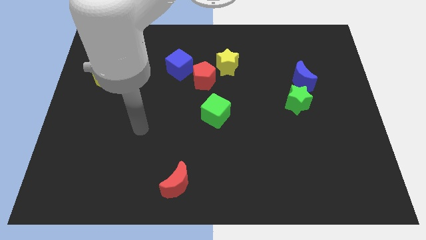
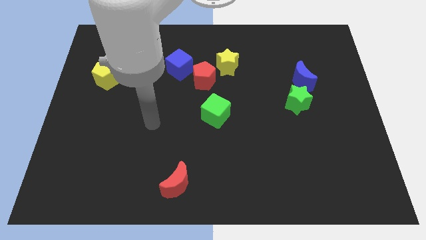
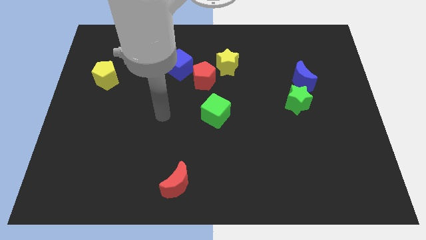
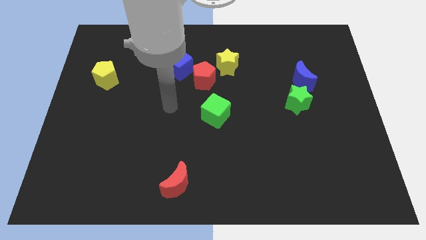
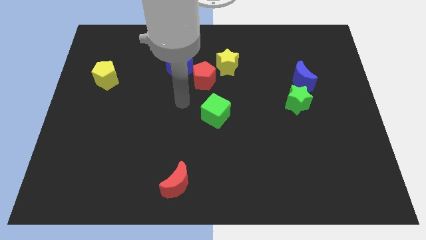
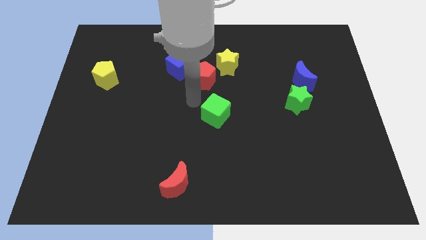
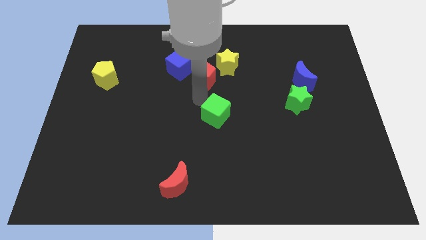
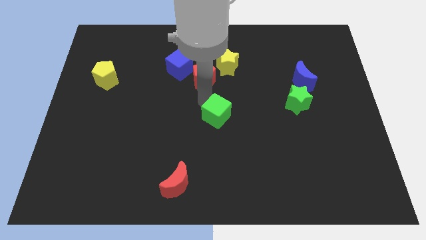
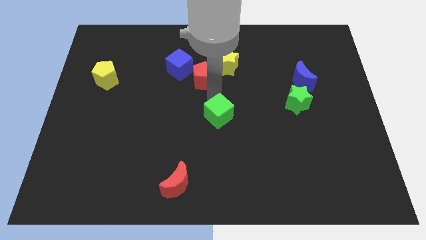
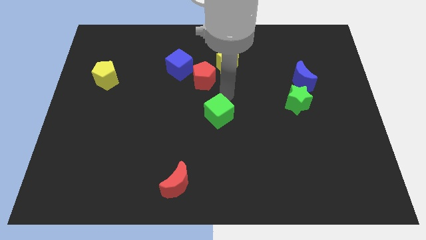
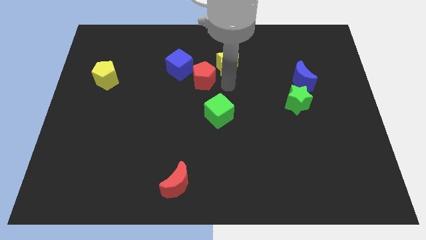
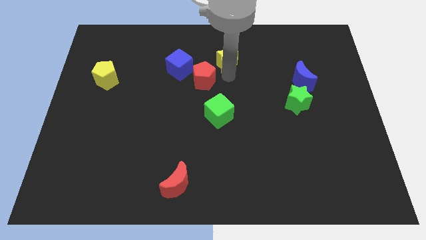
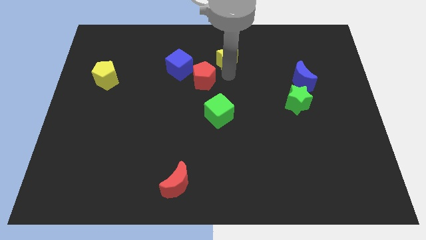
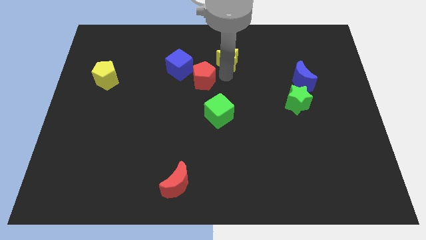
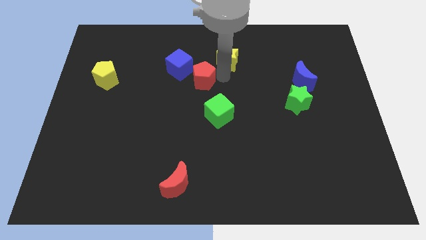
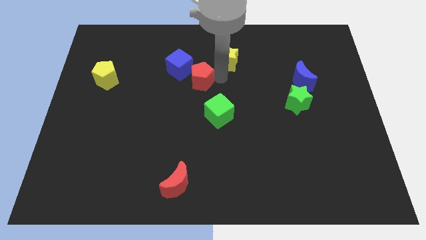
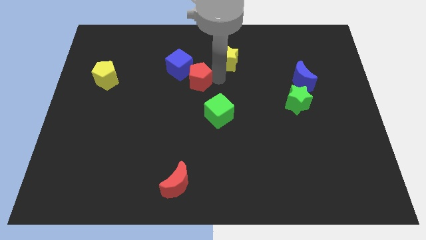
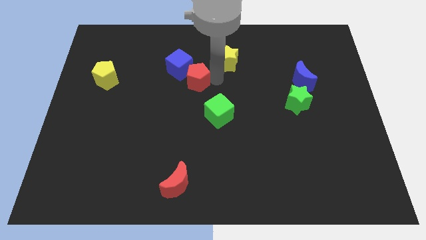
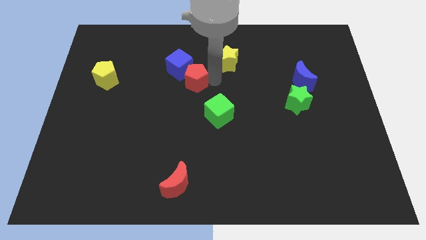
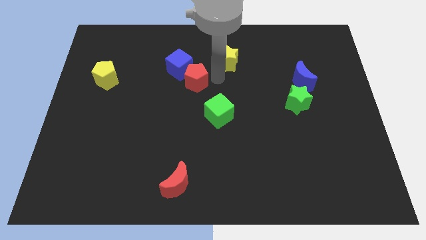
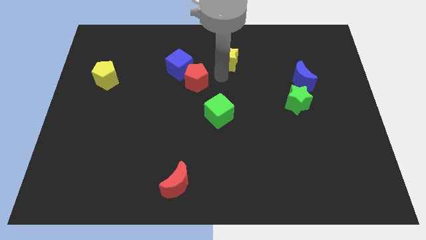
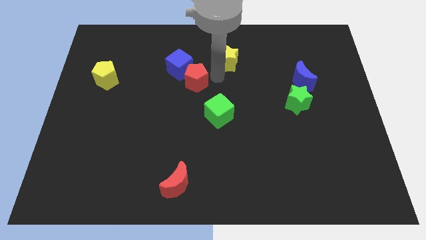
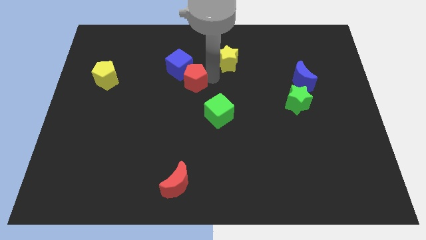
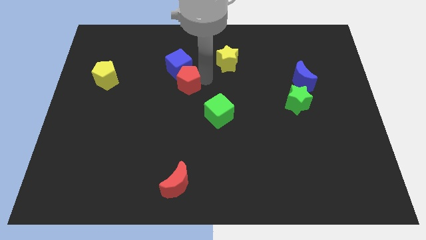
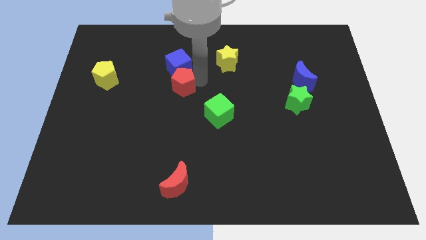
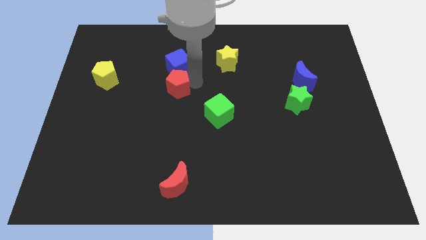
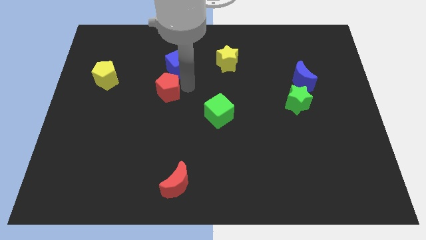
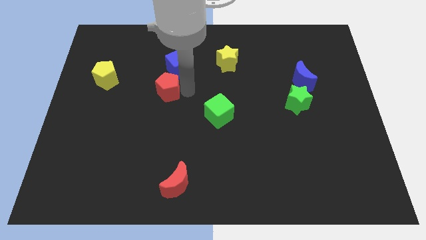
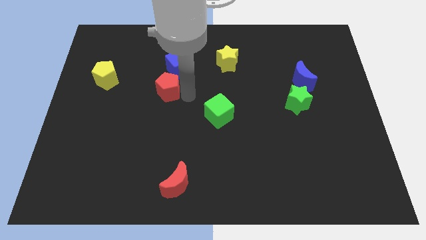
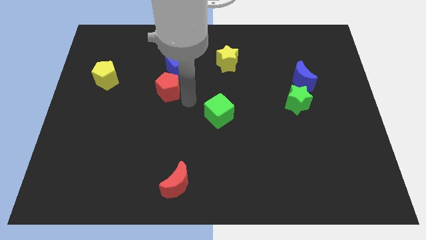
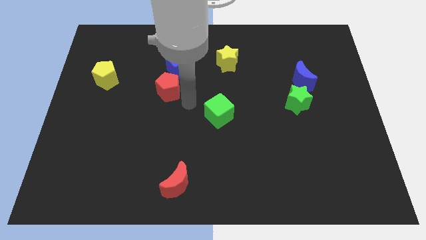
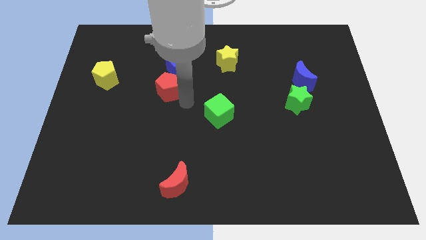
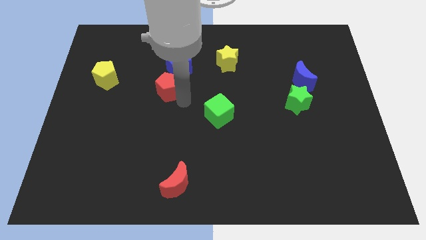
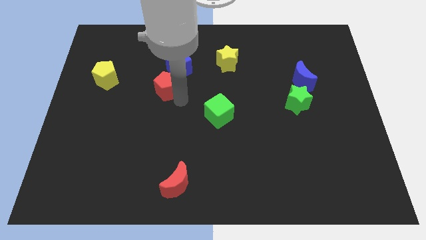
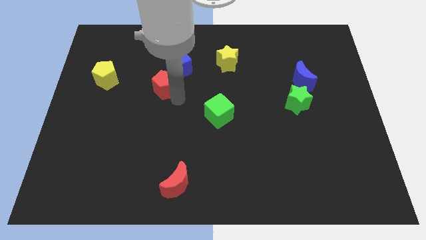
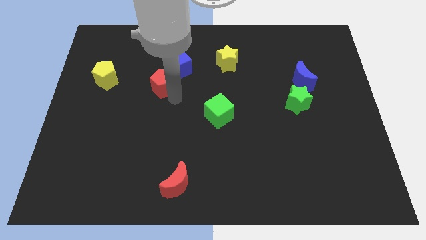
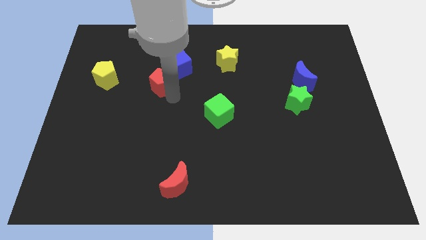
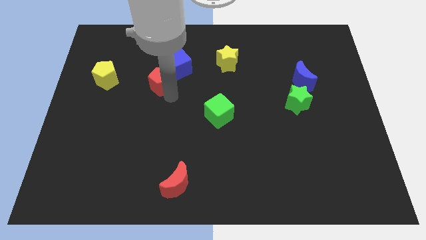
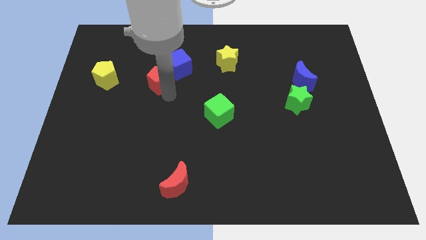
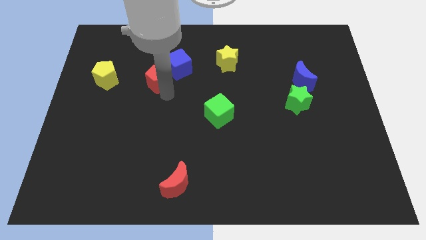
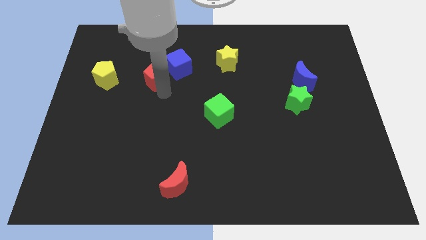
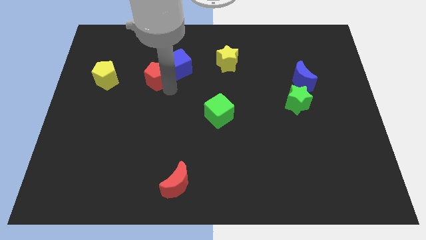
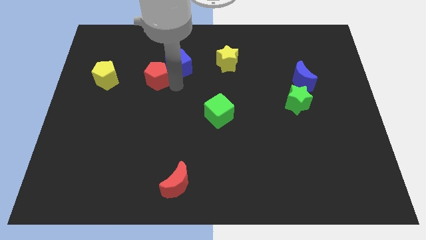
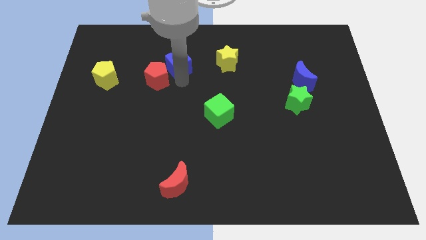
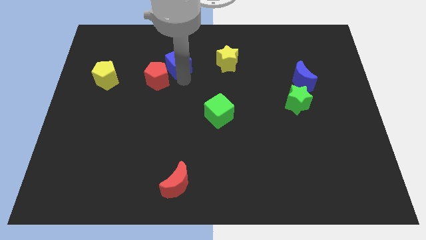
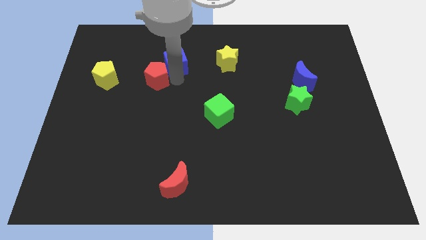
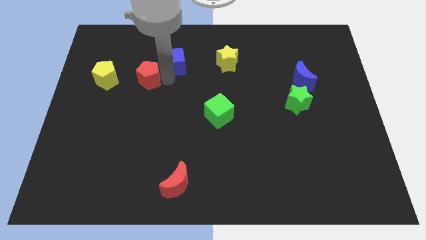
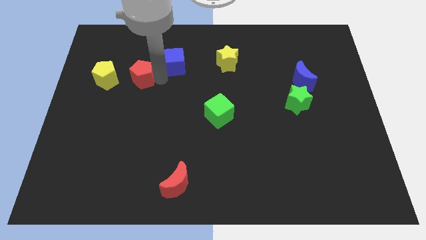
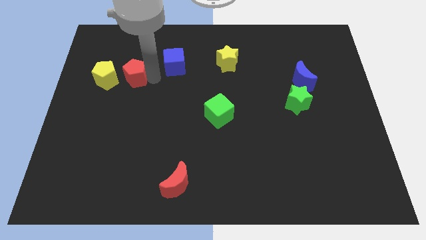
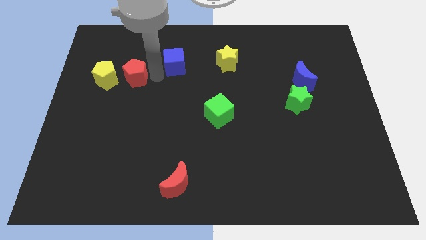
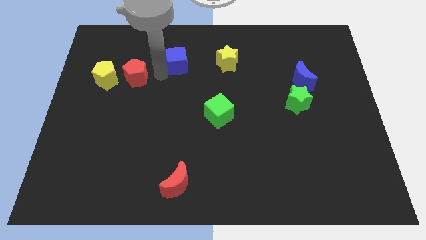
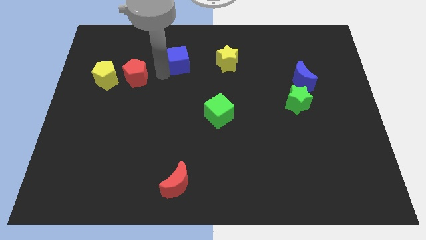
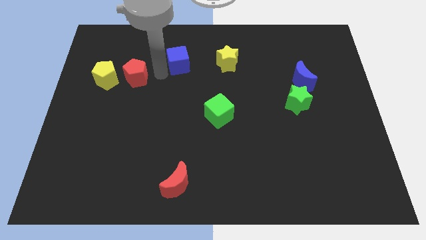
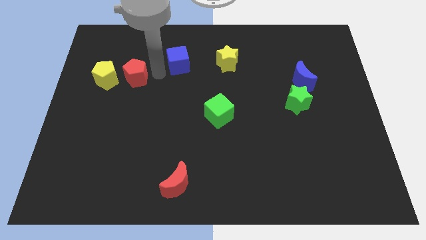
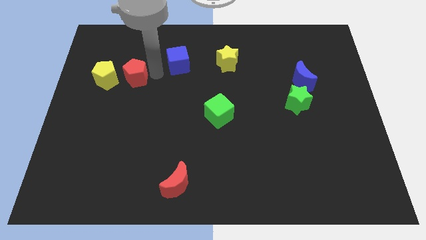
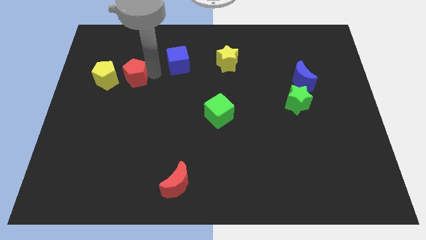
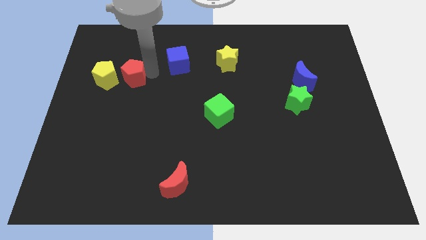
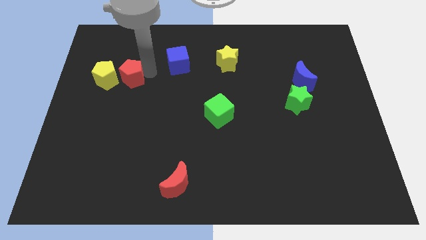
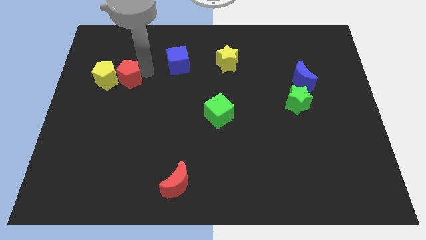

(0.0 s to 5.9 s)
move the red pentagon to the yellow pentagon

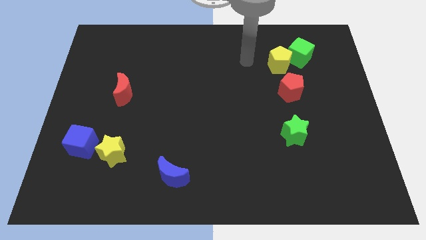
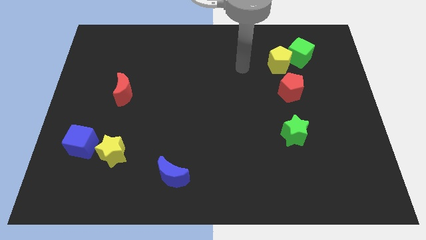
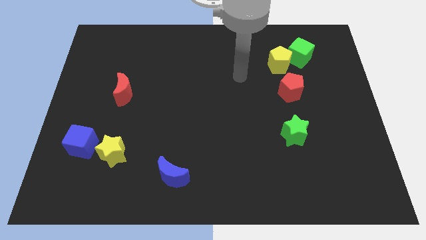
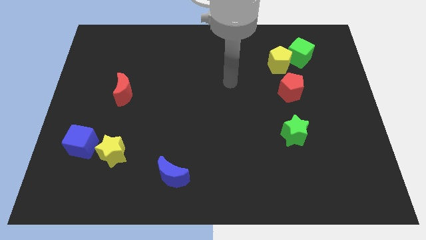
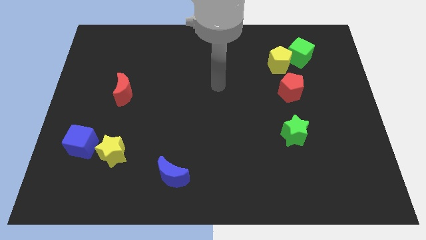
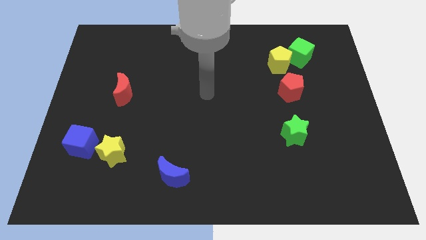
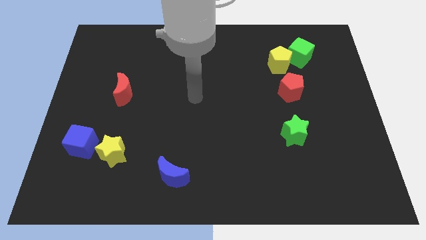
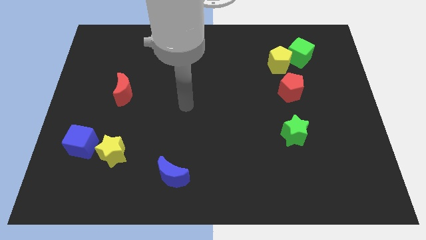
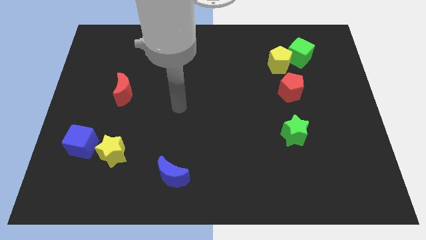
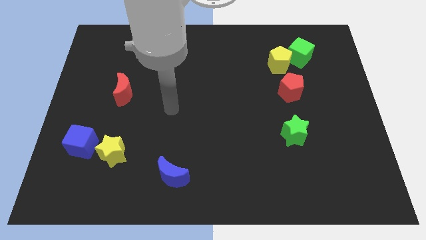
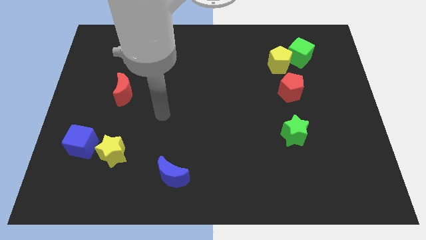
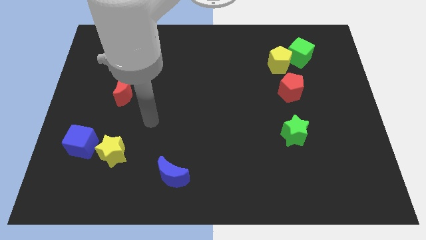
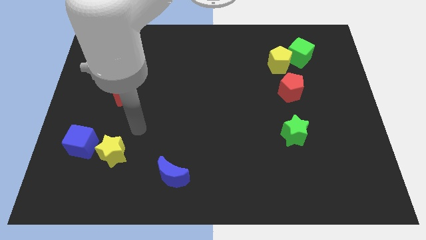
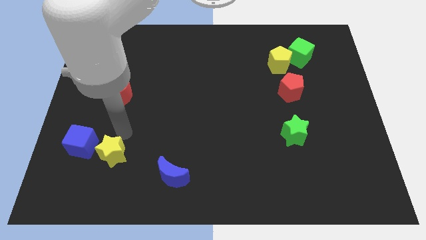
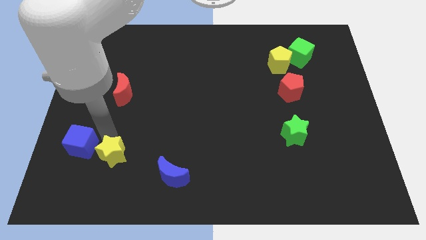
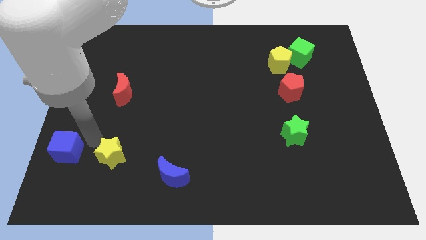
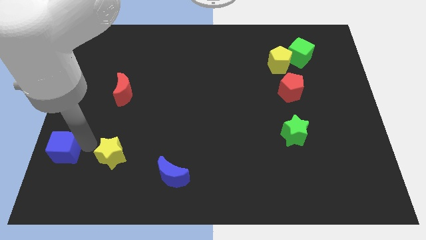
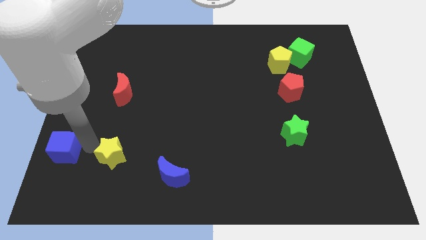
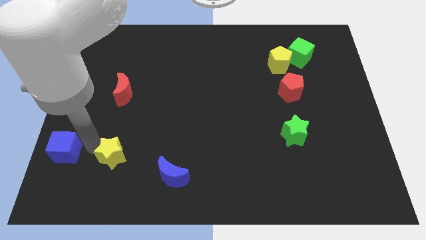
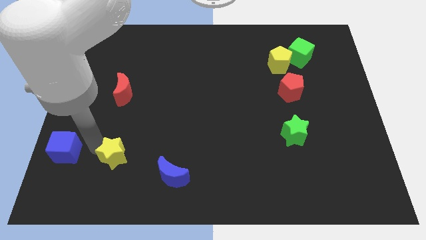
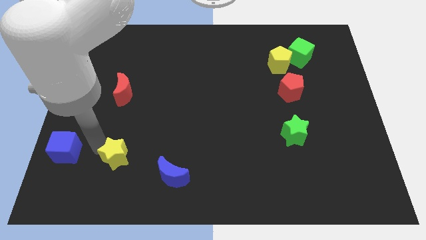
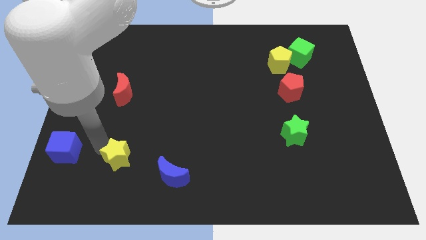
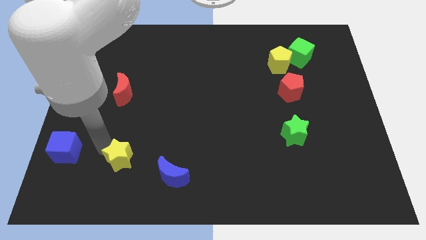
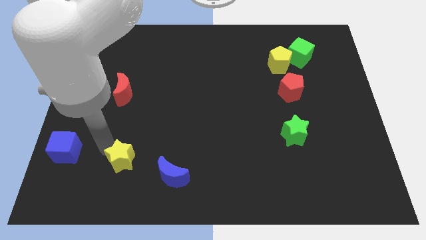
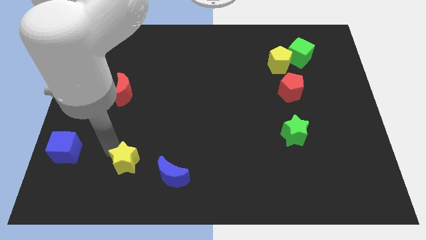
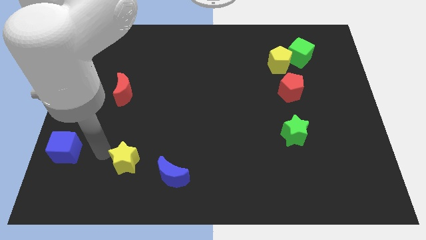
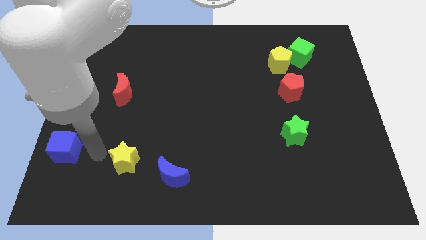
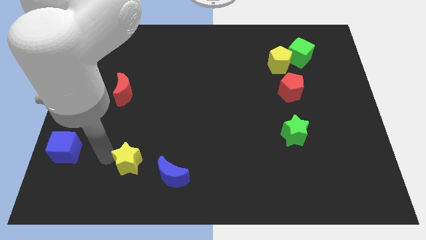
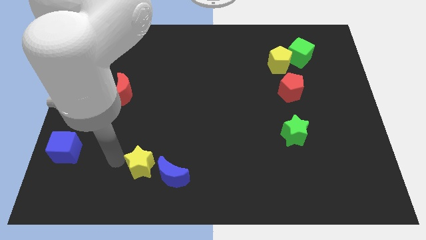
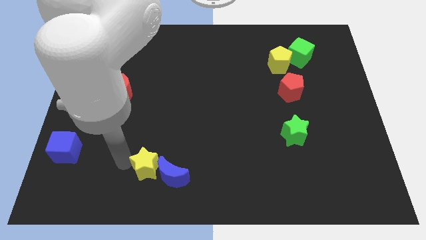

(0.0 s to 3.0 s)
put the yellow star to the blue moon
